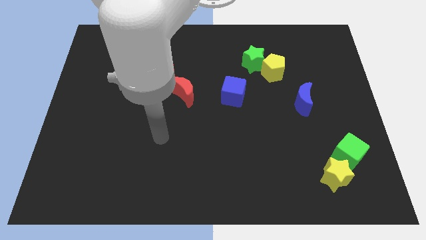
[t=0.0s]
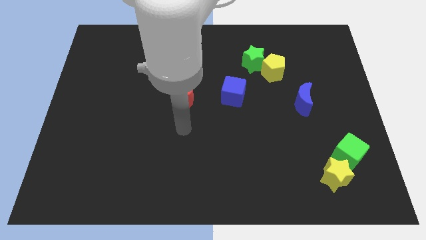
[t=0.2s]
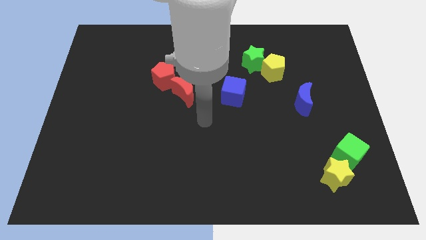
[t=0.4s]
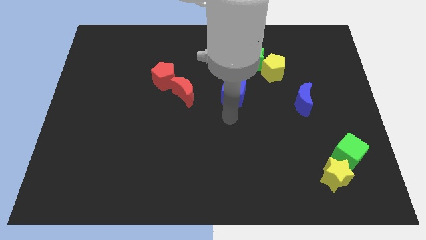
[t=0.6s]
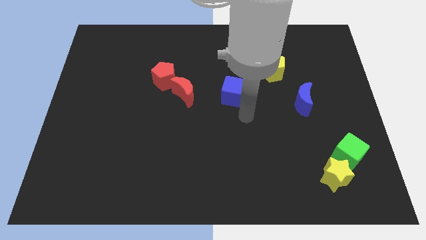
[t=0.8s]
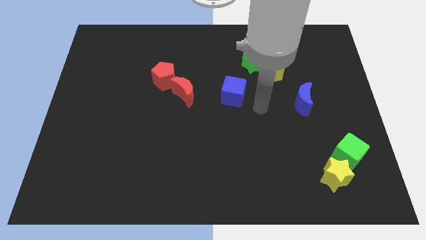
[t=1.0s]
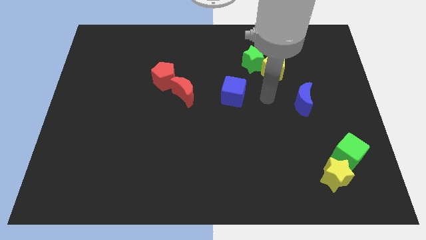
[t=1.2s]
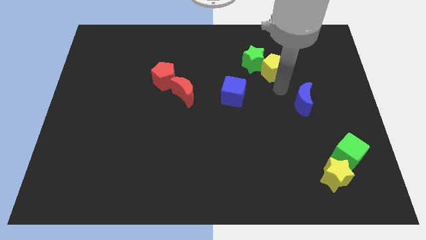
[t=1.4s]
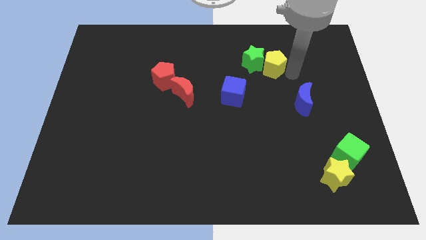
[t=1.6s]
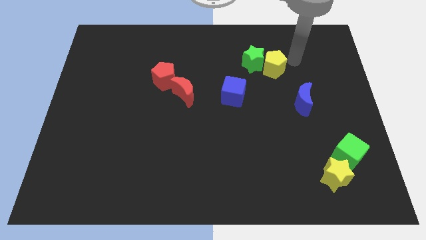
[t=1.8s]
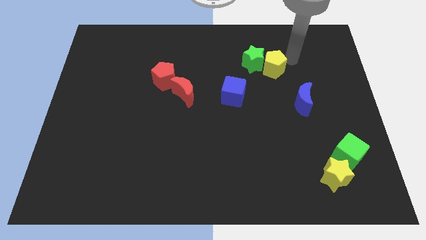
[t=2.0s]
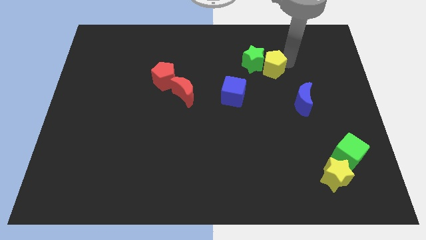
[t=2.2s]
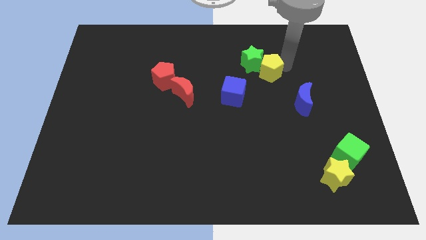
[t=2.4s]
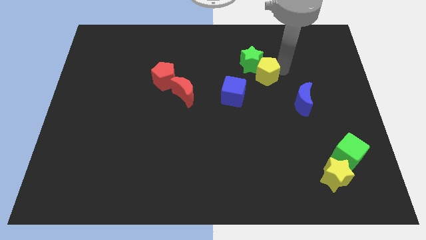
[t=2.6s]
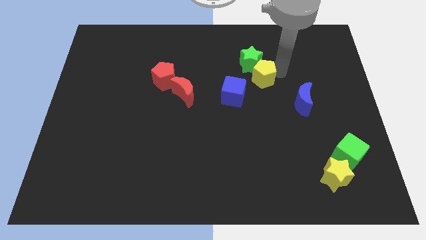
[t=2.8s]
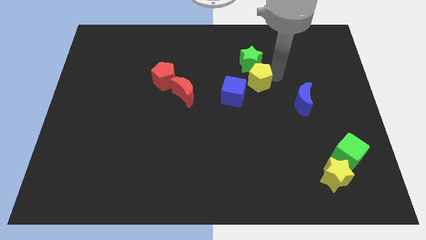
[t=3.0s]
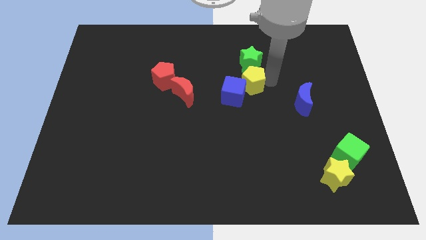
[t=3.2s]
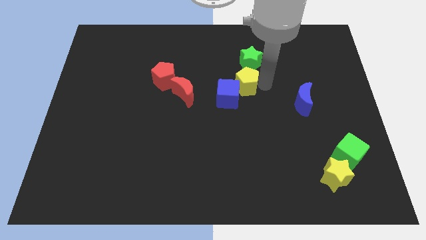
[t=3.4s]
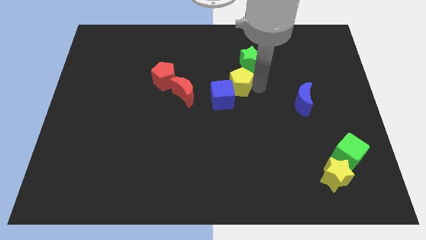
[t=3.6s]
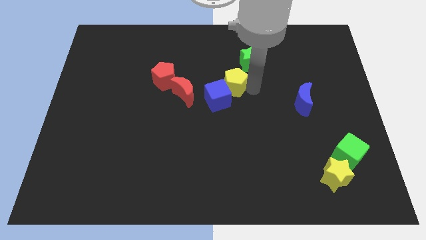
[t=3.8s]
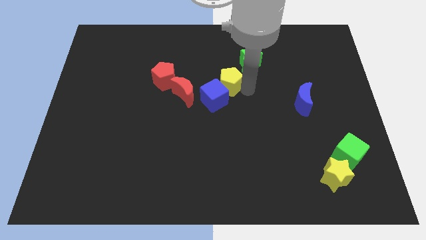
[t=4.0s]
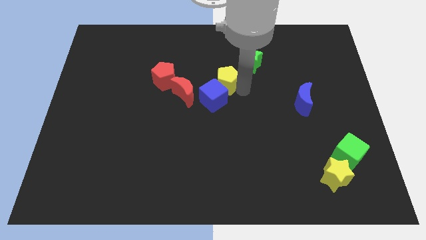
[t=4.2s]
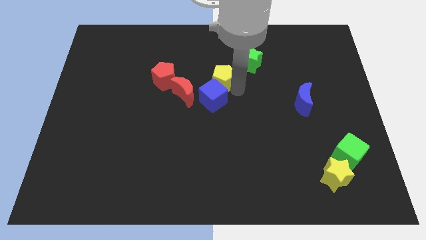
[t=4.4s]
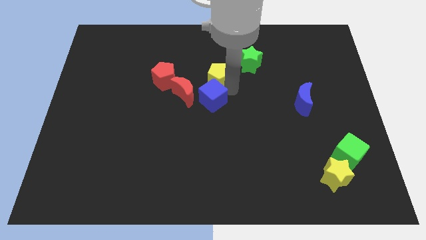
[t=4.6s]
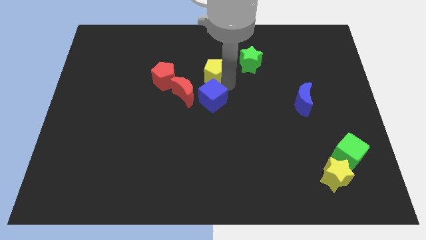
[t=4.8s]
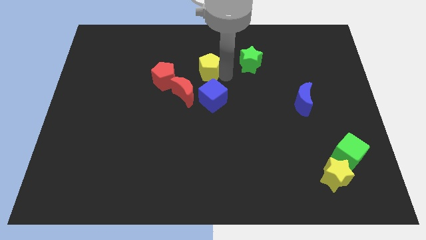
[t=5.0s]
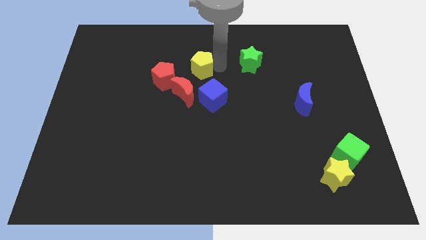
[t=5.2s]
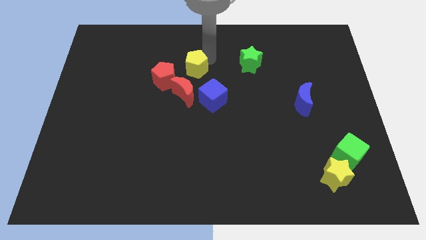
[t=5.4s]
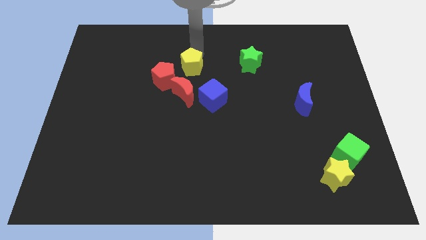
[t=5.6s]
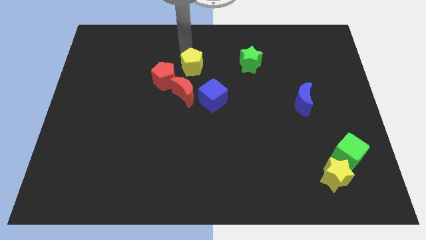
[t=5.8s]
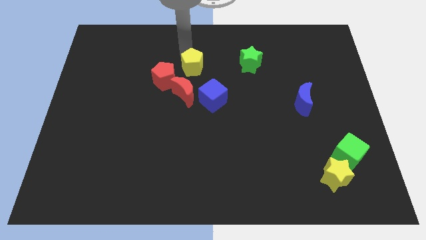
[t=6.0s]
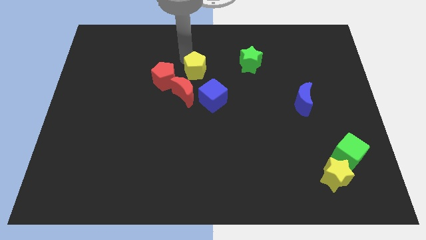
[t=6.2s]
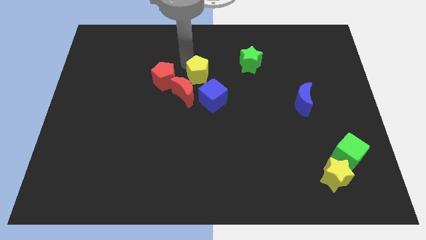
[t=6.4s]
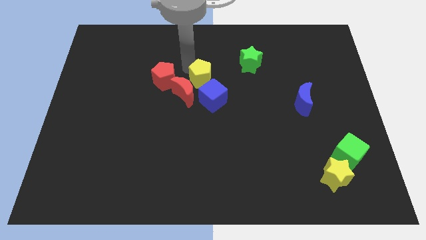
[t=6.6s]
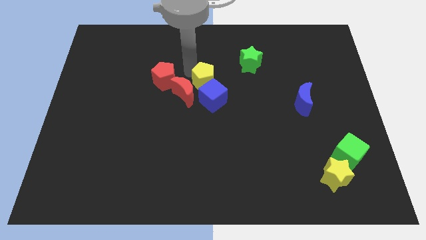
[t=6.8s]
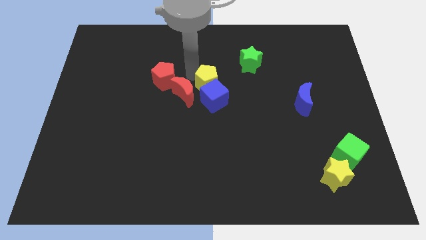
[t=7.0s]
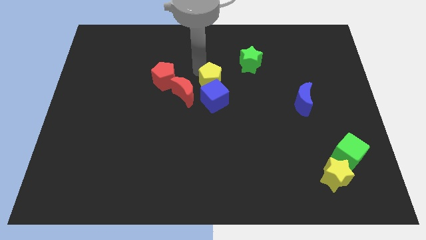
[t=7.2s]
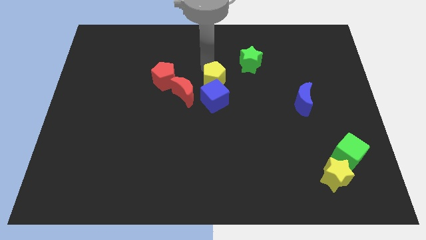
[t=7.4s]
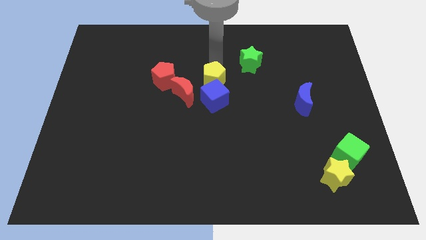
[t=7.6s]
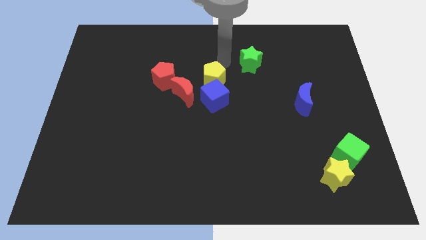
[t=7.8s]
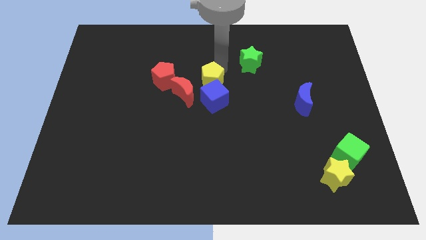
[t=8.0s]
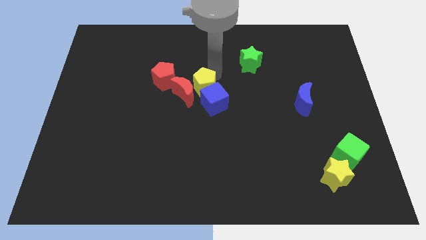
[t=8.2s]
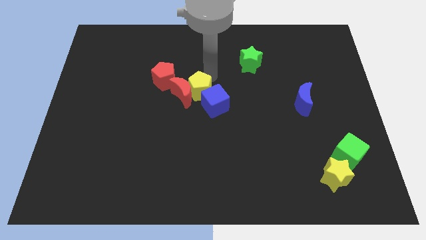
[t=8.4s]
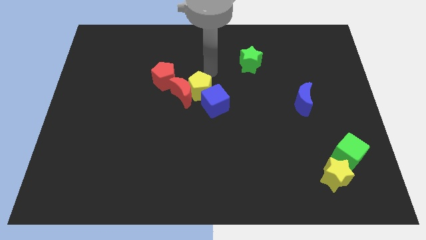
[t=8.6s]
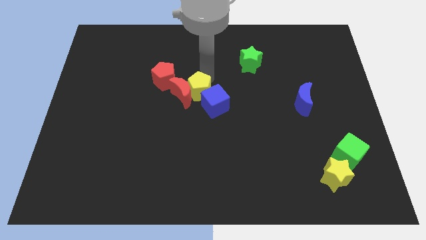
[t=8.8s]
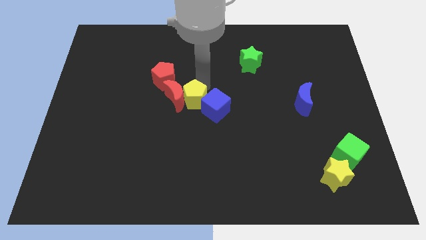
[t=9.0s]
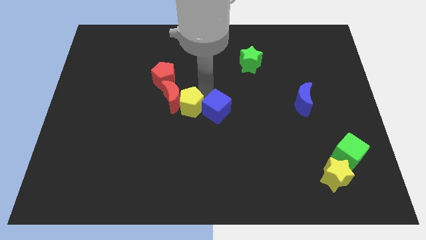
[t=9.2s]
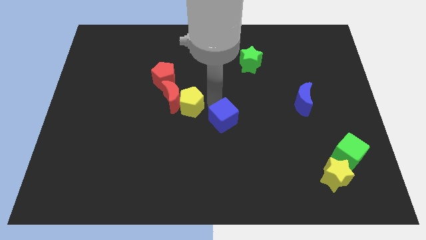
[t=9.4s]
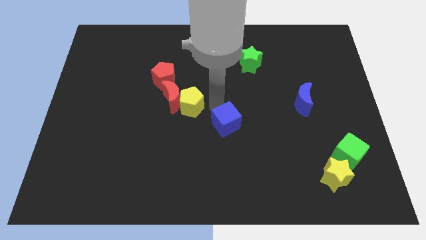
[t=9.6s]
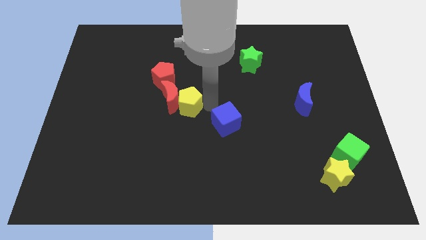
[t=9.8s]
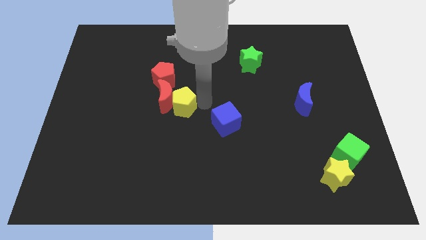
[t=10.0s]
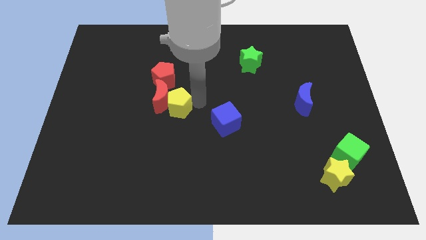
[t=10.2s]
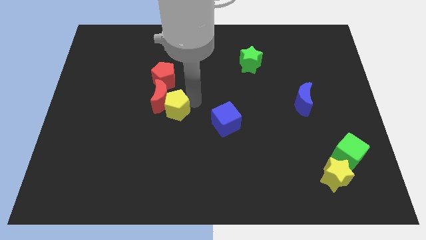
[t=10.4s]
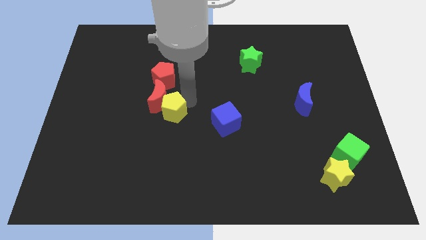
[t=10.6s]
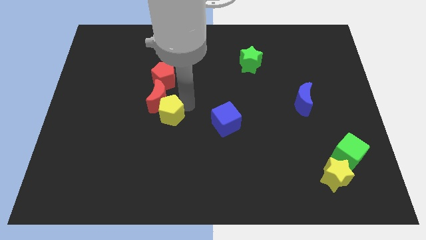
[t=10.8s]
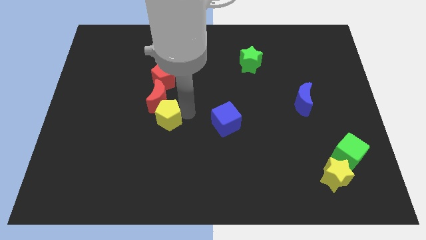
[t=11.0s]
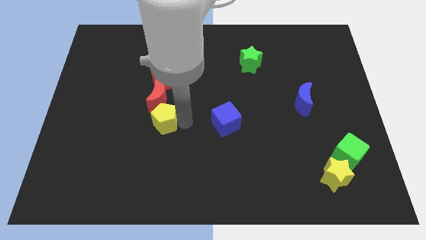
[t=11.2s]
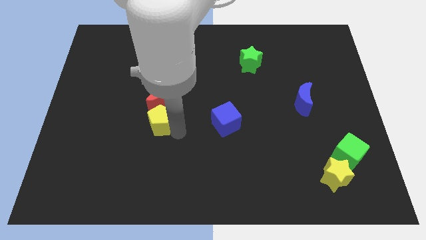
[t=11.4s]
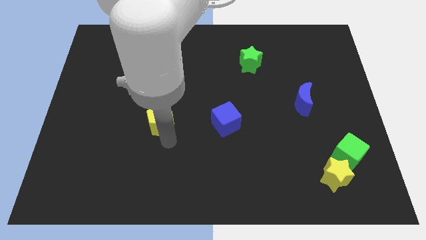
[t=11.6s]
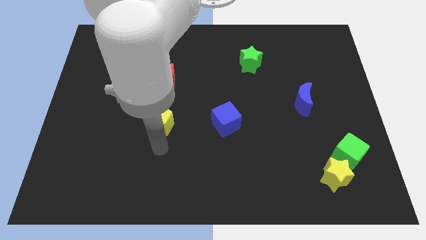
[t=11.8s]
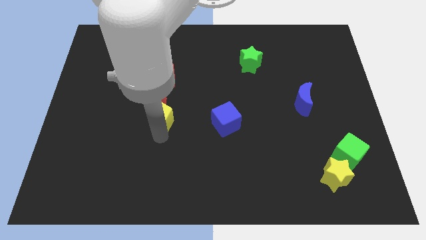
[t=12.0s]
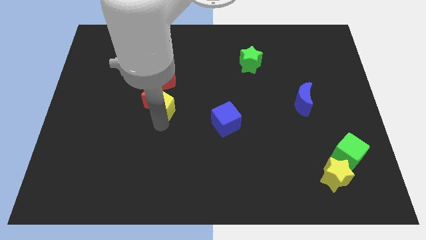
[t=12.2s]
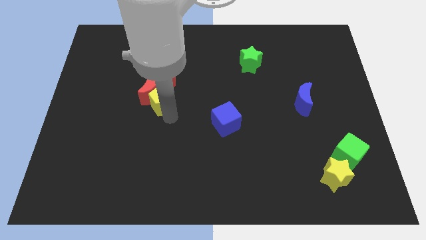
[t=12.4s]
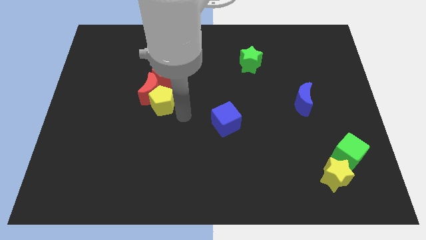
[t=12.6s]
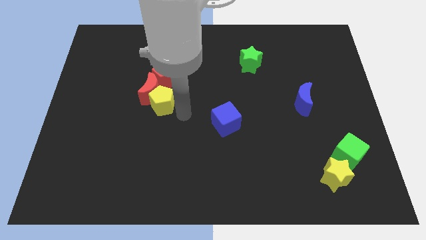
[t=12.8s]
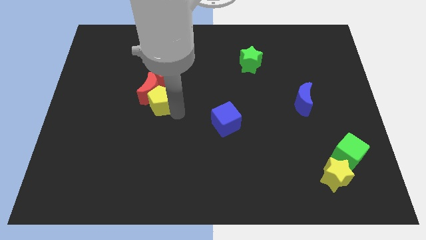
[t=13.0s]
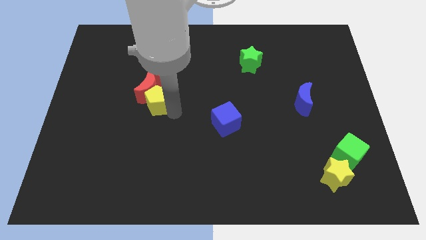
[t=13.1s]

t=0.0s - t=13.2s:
put the yellow pentagon to the bottom left of the red pentagon

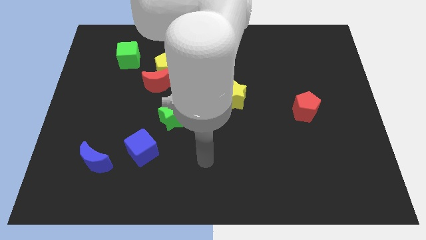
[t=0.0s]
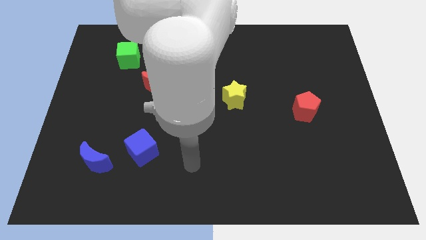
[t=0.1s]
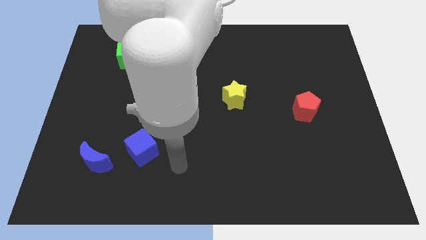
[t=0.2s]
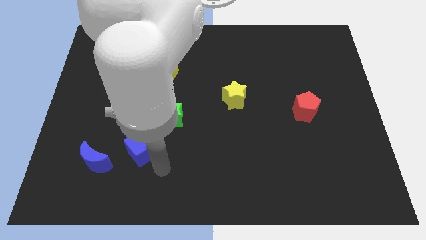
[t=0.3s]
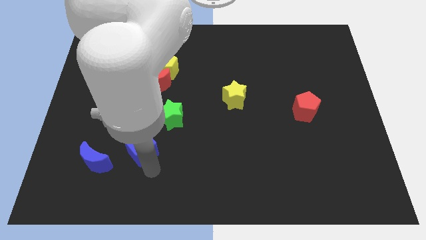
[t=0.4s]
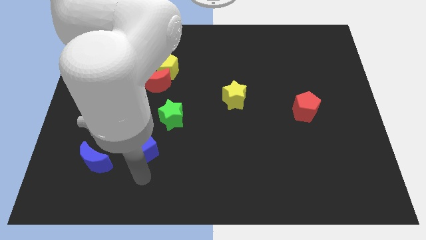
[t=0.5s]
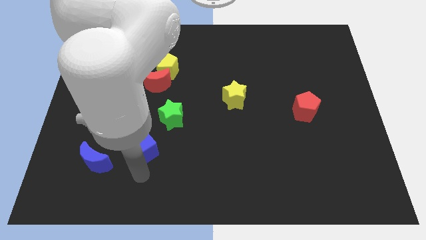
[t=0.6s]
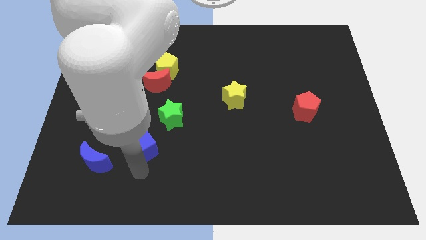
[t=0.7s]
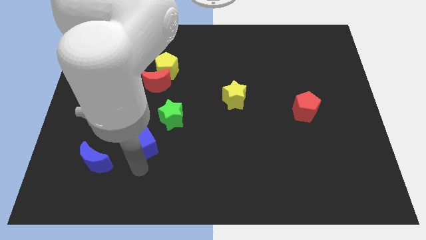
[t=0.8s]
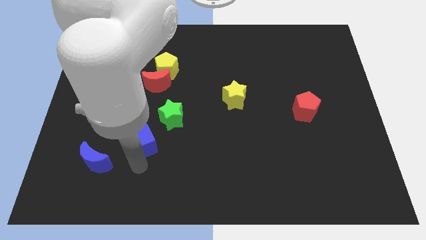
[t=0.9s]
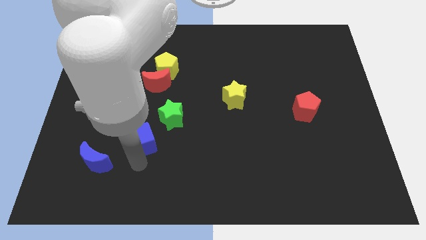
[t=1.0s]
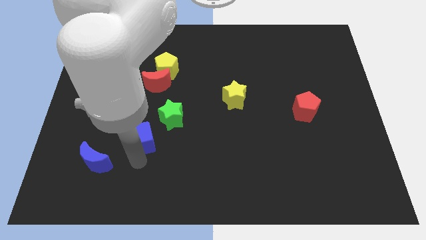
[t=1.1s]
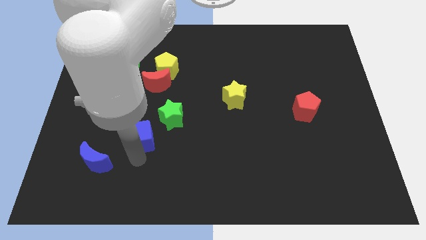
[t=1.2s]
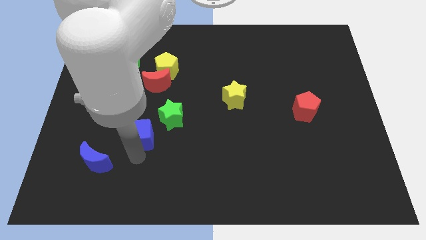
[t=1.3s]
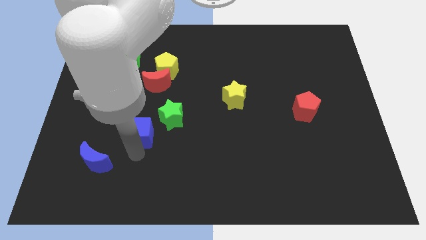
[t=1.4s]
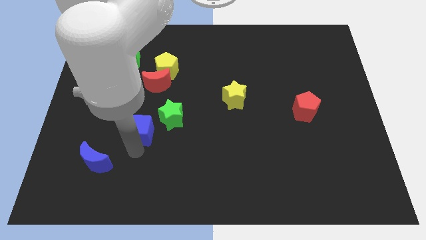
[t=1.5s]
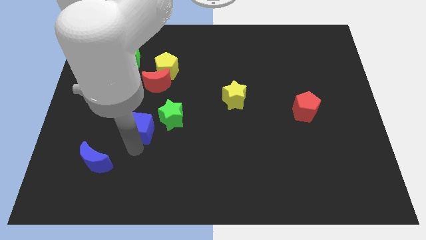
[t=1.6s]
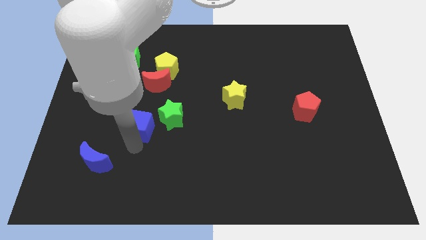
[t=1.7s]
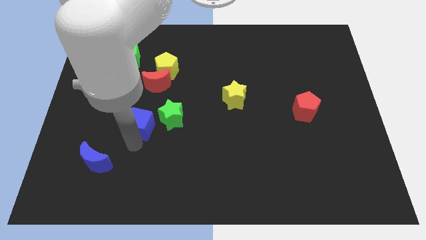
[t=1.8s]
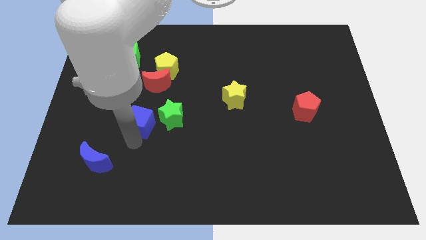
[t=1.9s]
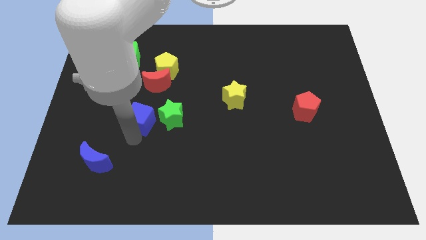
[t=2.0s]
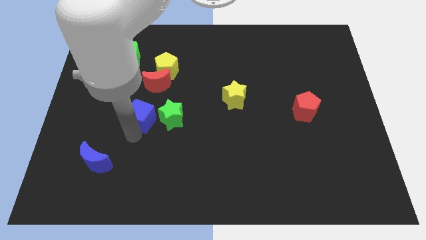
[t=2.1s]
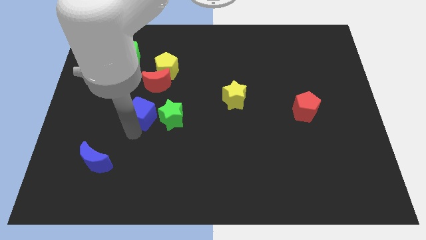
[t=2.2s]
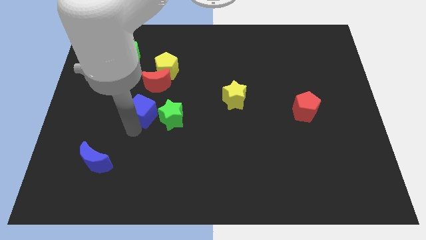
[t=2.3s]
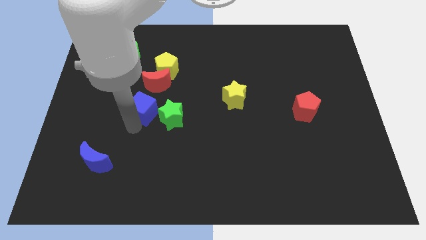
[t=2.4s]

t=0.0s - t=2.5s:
slide the blue cube to the bottom of the yellow pentagon
